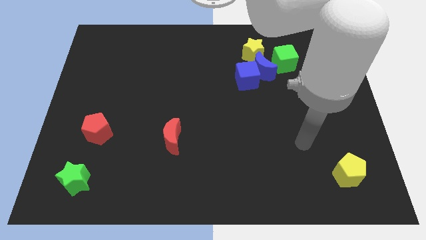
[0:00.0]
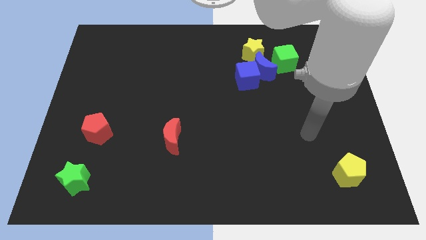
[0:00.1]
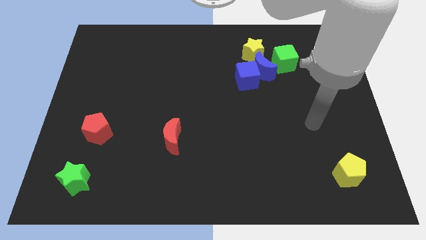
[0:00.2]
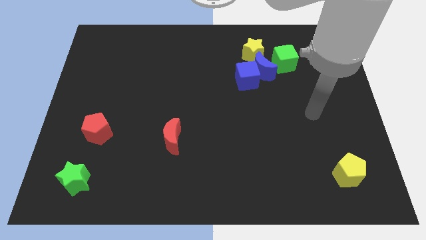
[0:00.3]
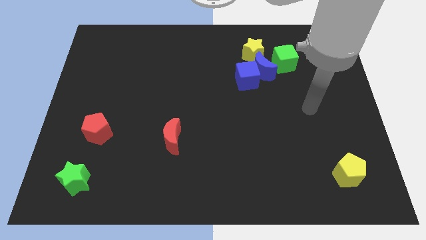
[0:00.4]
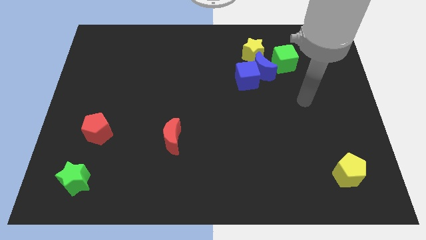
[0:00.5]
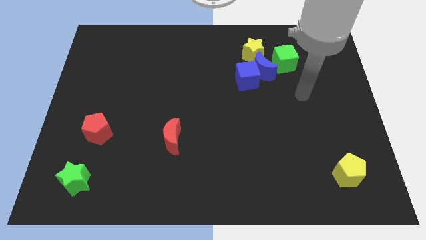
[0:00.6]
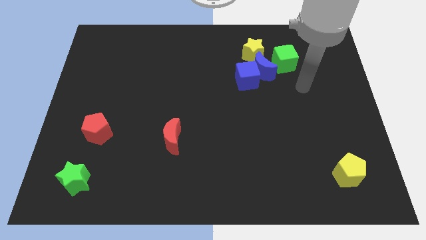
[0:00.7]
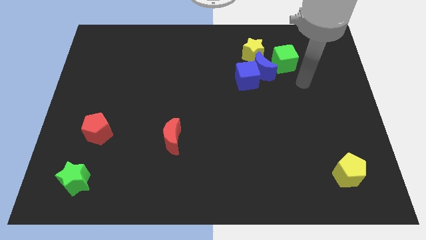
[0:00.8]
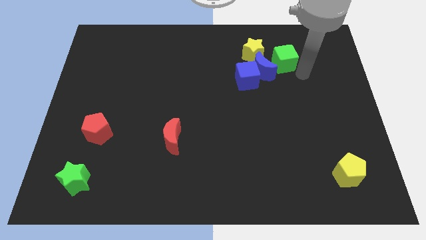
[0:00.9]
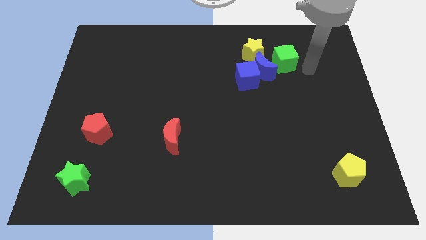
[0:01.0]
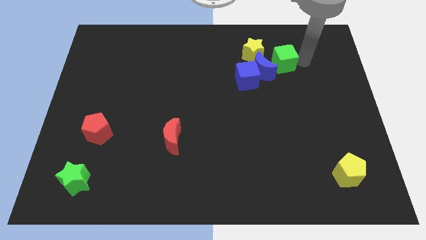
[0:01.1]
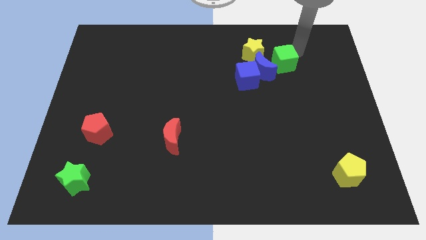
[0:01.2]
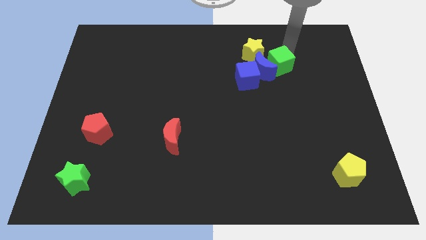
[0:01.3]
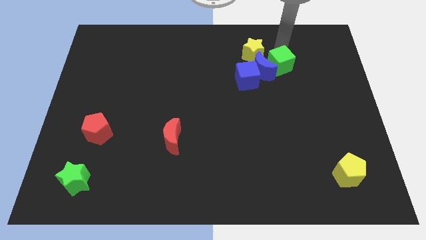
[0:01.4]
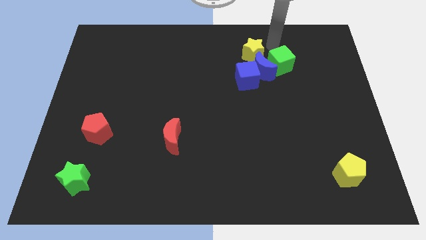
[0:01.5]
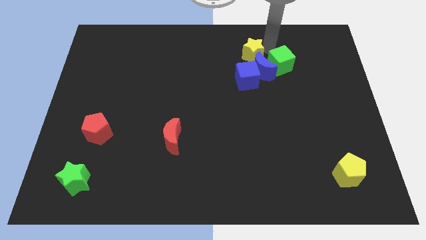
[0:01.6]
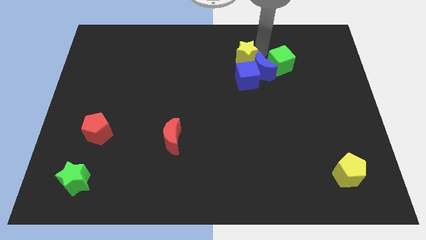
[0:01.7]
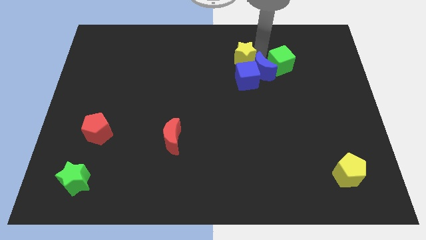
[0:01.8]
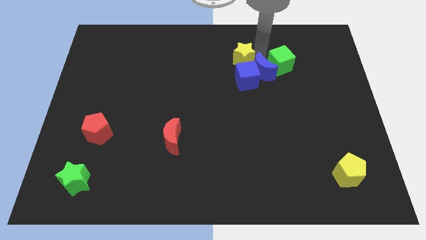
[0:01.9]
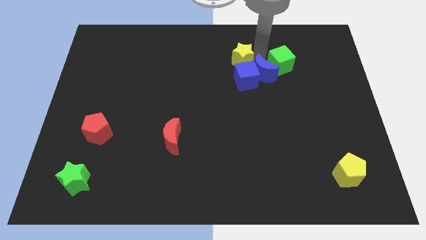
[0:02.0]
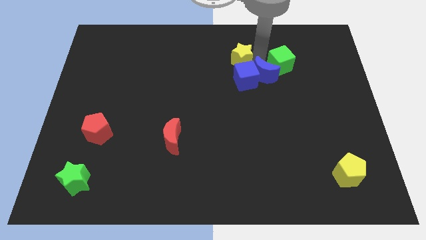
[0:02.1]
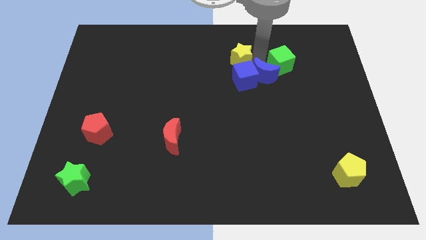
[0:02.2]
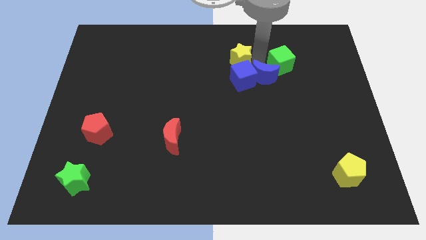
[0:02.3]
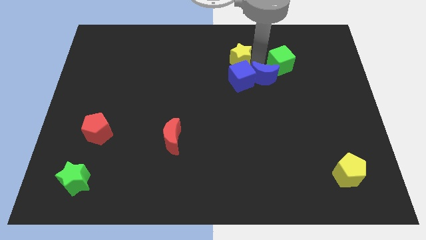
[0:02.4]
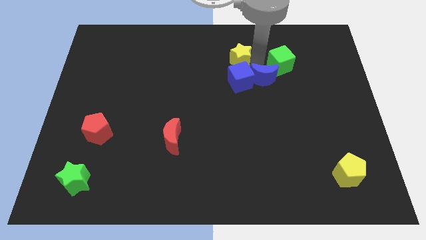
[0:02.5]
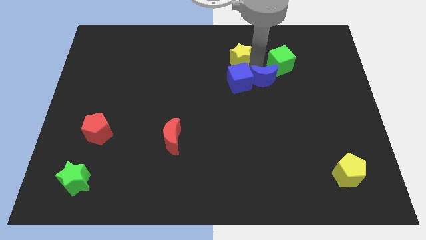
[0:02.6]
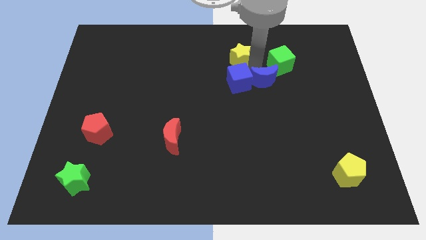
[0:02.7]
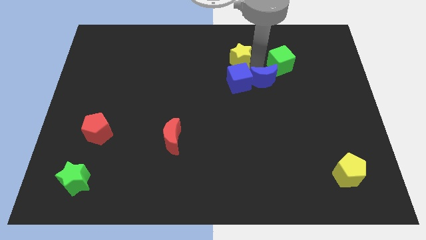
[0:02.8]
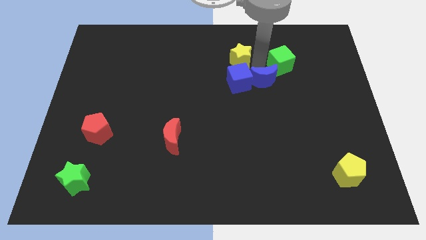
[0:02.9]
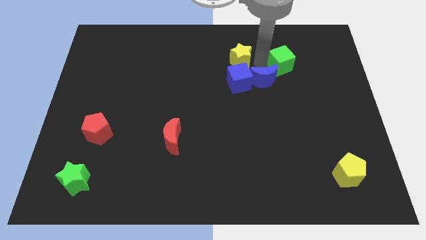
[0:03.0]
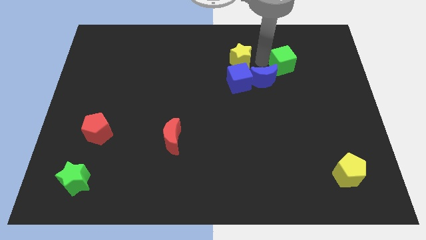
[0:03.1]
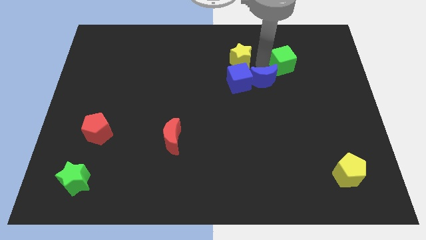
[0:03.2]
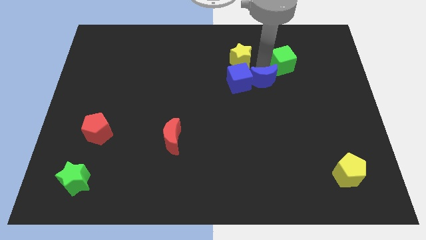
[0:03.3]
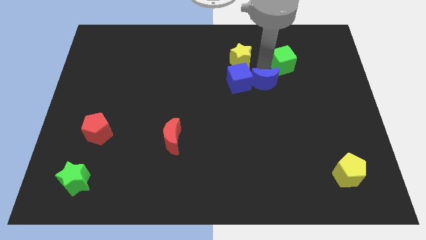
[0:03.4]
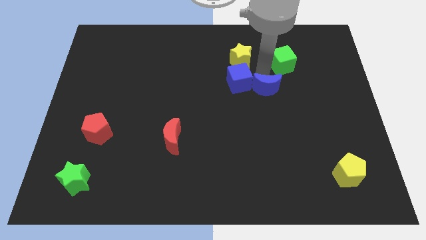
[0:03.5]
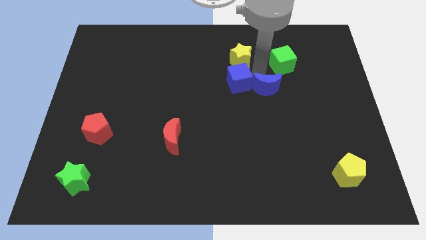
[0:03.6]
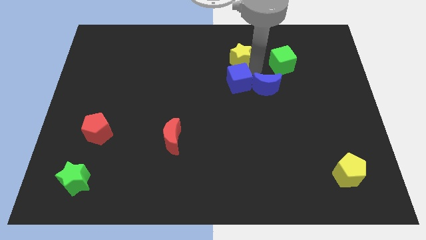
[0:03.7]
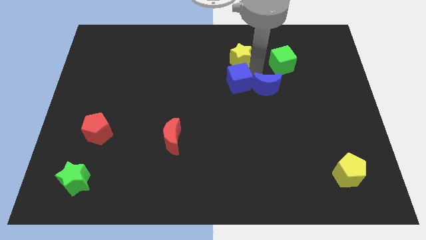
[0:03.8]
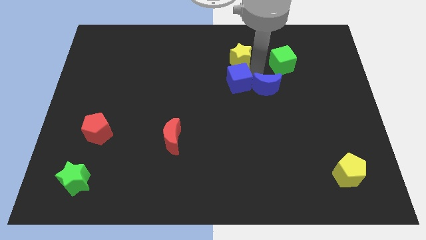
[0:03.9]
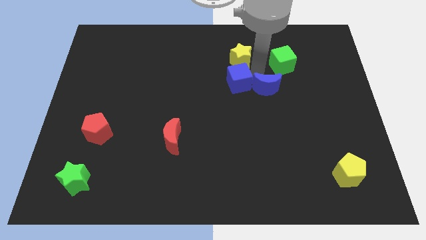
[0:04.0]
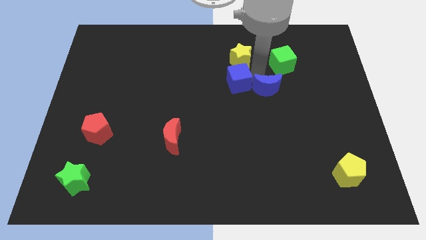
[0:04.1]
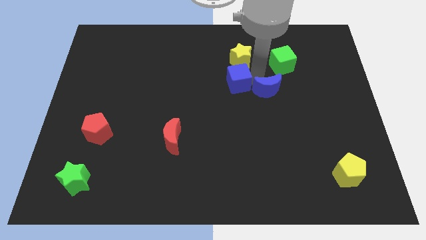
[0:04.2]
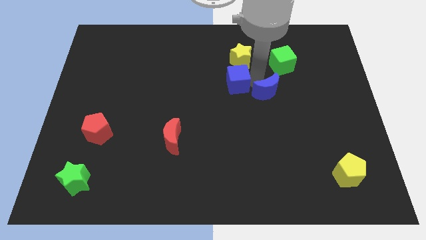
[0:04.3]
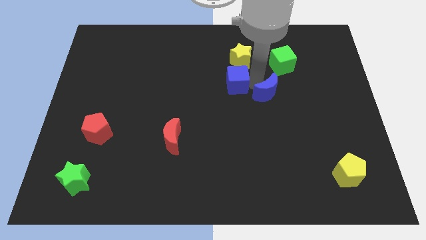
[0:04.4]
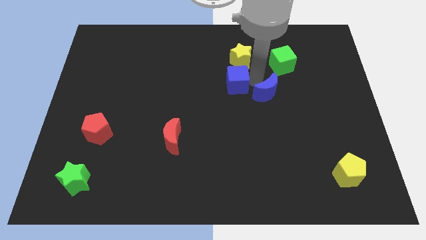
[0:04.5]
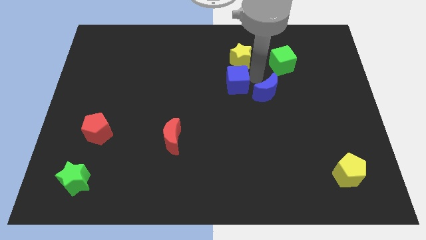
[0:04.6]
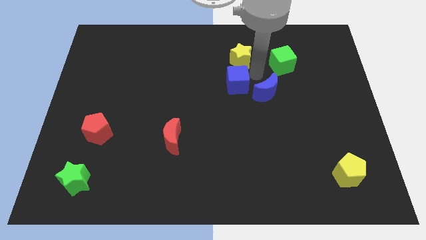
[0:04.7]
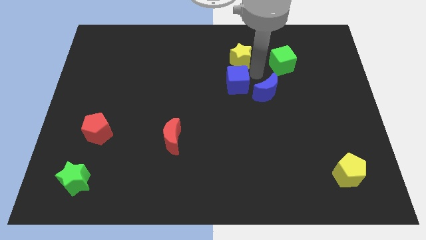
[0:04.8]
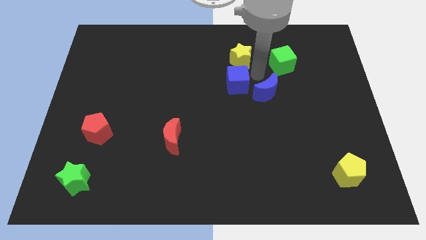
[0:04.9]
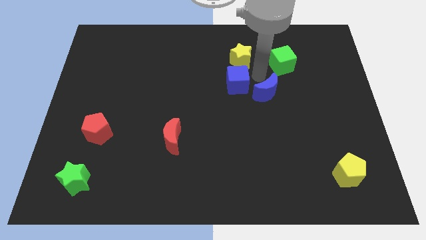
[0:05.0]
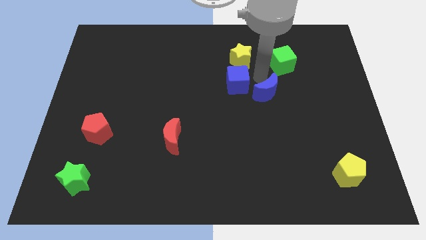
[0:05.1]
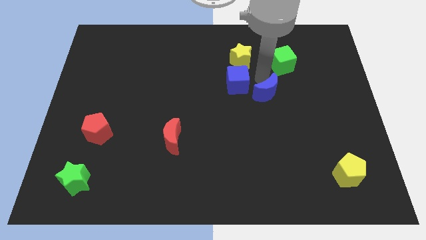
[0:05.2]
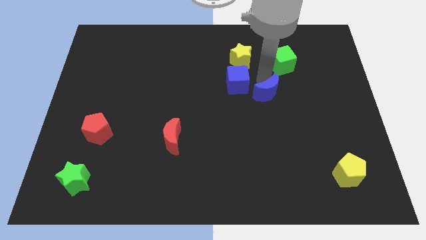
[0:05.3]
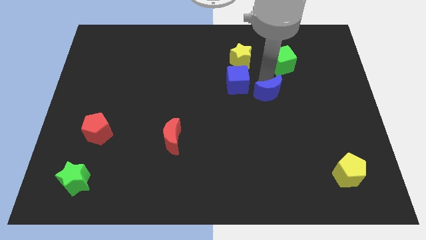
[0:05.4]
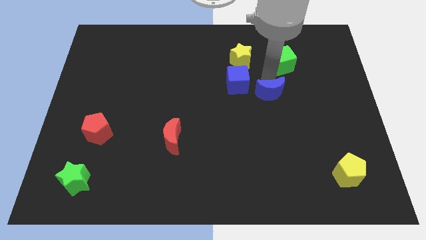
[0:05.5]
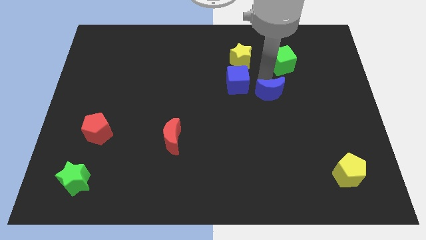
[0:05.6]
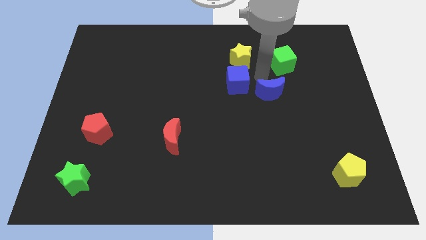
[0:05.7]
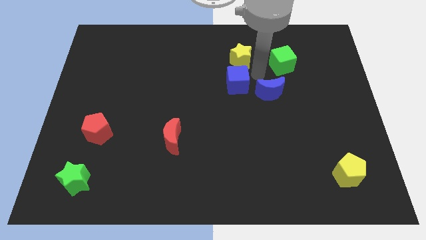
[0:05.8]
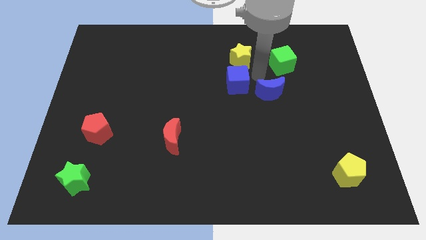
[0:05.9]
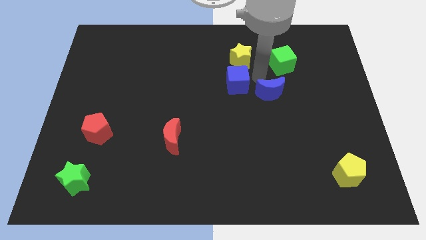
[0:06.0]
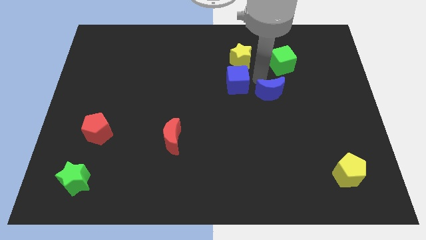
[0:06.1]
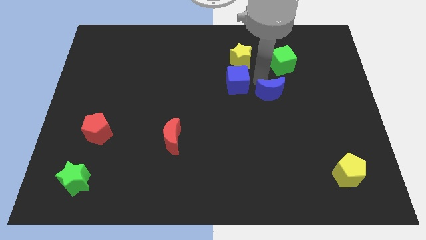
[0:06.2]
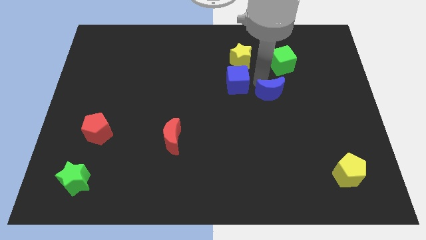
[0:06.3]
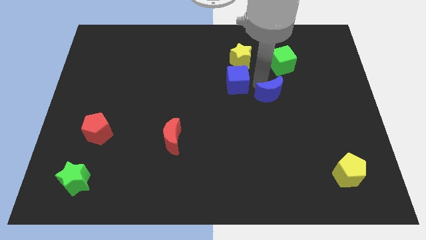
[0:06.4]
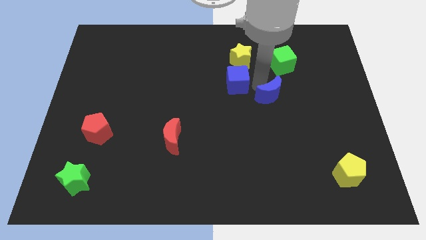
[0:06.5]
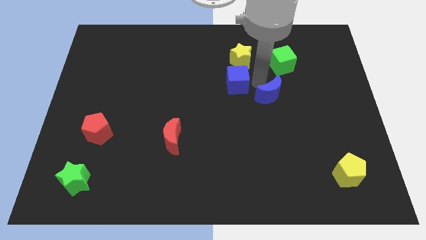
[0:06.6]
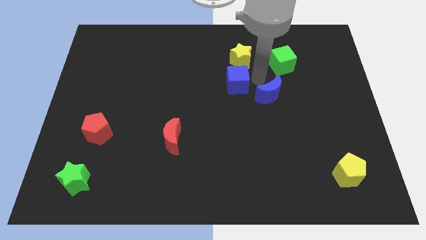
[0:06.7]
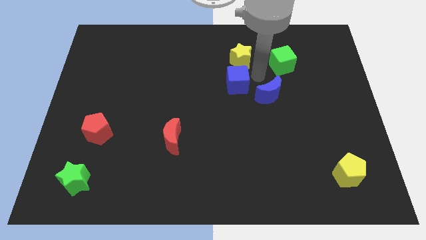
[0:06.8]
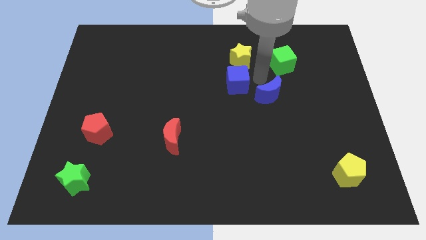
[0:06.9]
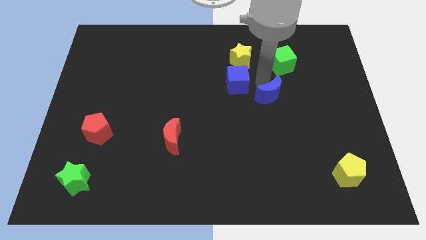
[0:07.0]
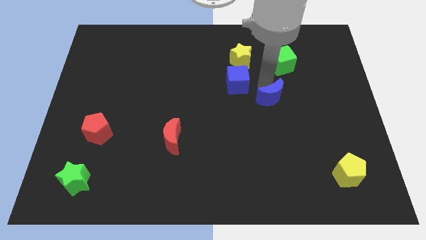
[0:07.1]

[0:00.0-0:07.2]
separate the blue moon from the group

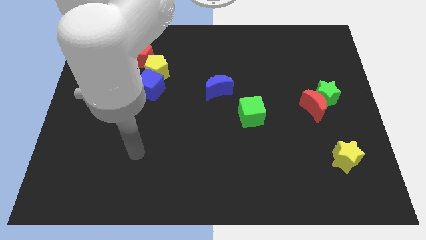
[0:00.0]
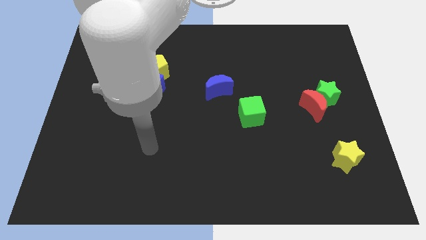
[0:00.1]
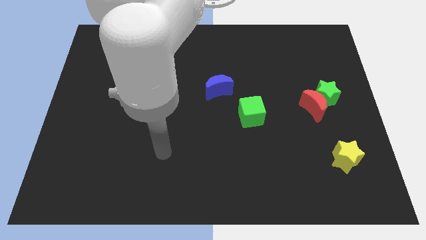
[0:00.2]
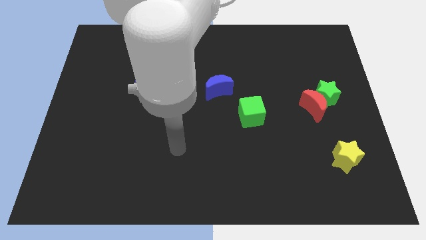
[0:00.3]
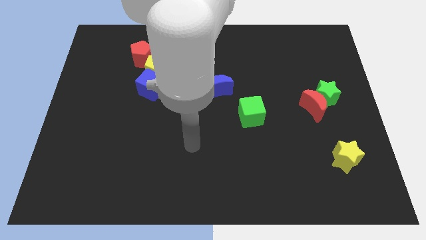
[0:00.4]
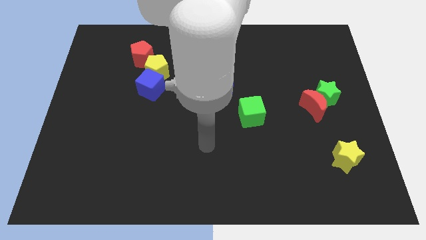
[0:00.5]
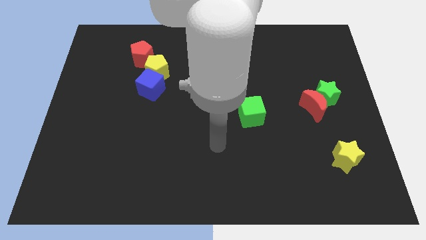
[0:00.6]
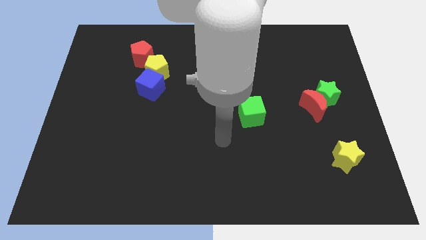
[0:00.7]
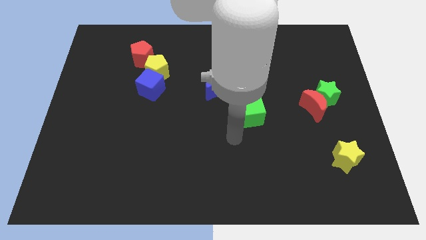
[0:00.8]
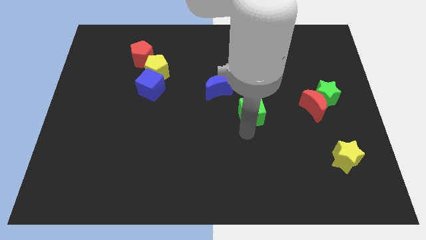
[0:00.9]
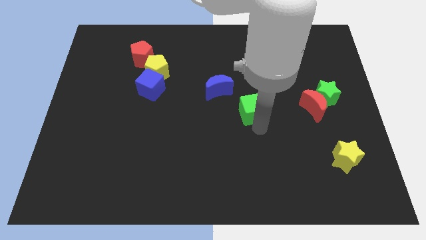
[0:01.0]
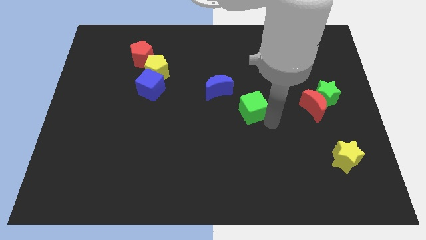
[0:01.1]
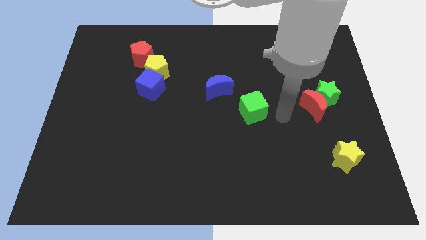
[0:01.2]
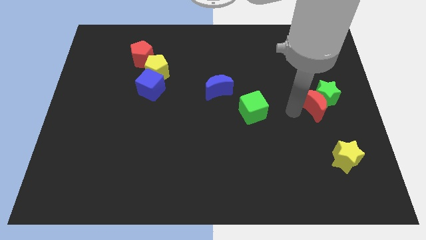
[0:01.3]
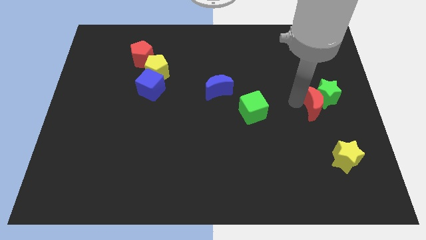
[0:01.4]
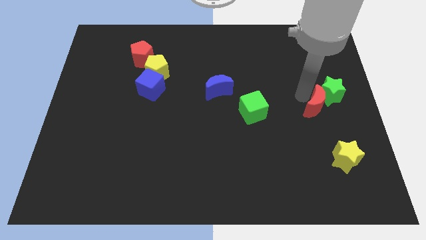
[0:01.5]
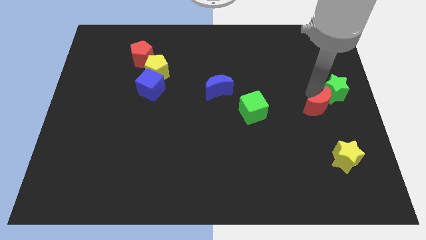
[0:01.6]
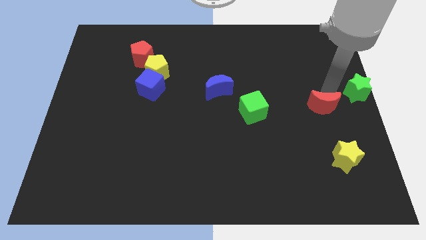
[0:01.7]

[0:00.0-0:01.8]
pull the red moon apart from the green star

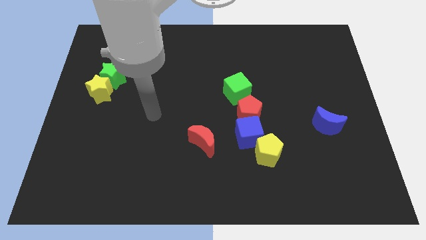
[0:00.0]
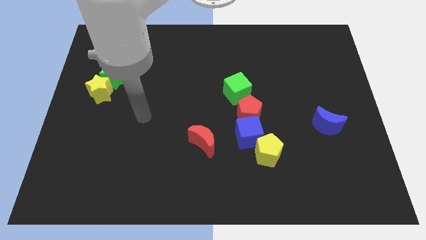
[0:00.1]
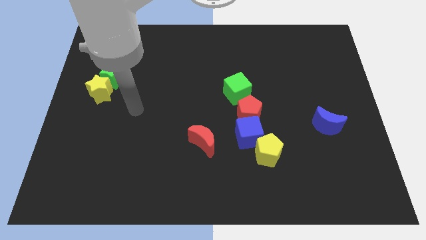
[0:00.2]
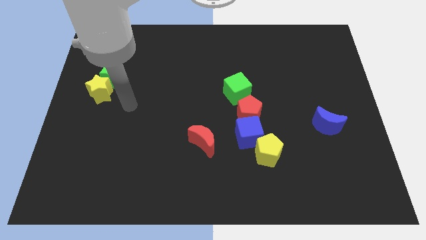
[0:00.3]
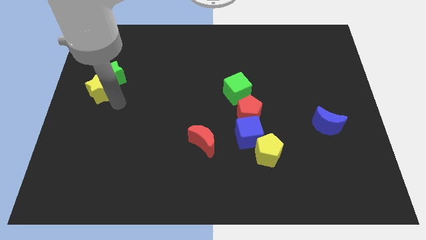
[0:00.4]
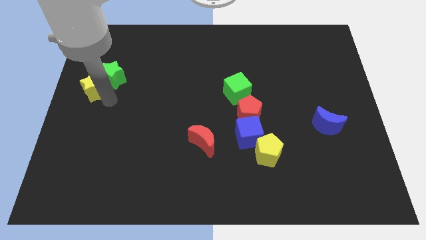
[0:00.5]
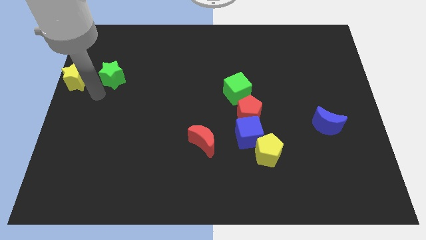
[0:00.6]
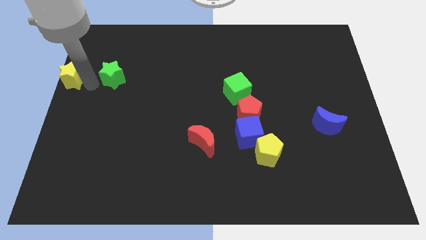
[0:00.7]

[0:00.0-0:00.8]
move the green star away from the yellow star
